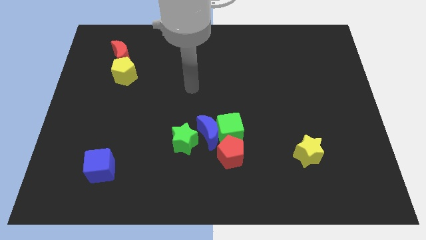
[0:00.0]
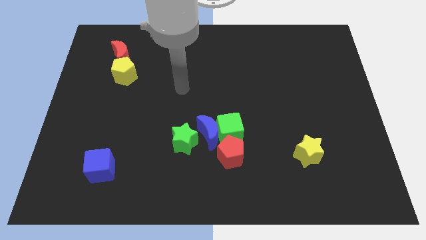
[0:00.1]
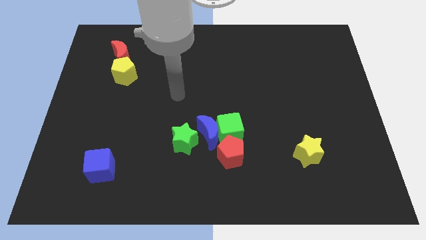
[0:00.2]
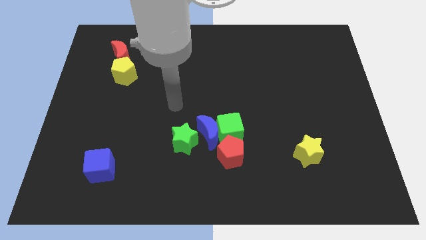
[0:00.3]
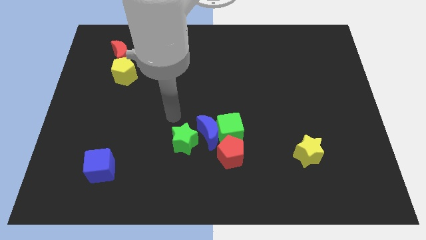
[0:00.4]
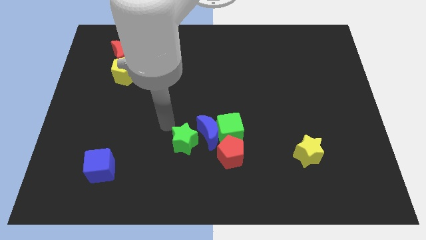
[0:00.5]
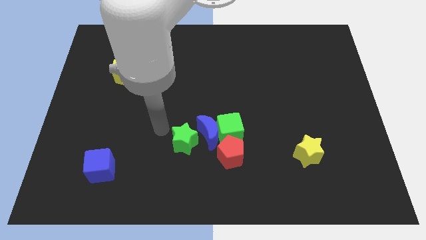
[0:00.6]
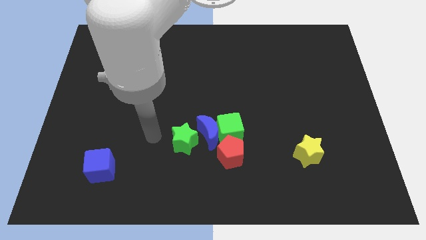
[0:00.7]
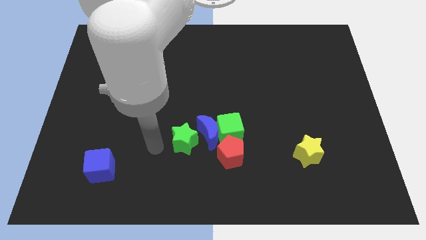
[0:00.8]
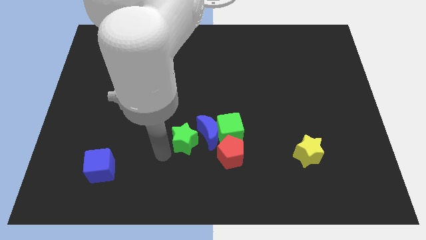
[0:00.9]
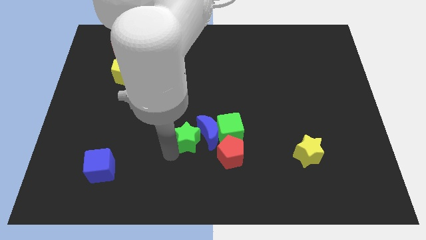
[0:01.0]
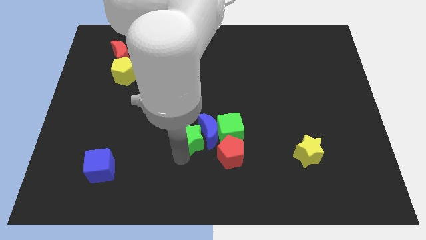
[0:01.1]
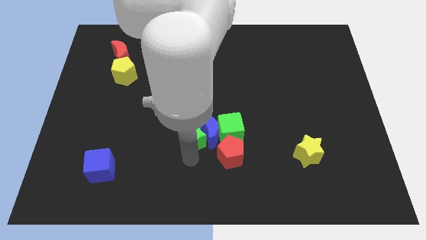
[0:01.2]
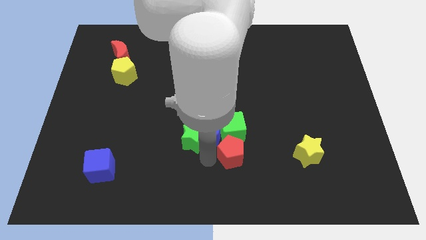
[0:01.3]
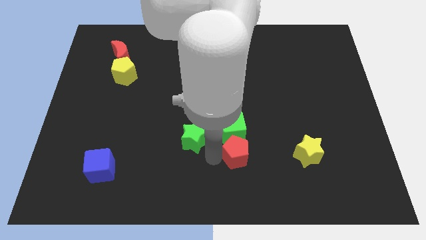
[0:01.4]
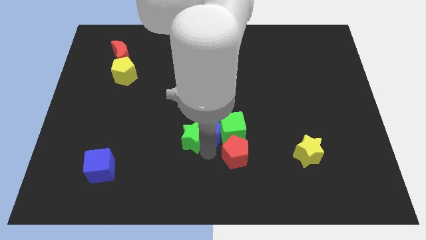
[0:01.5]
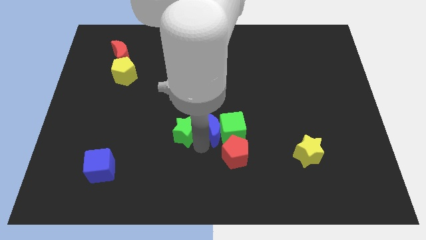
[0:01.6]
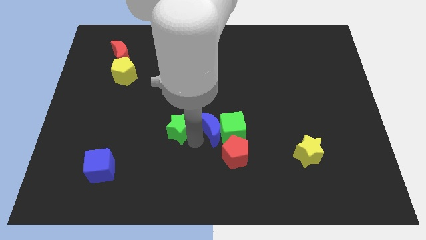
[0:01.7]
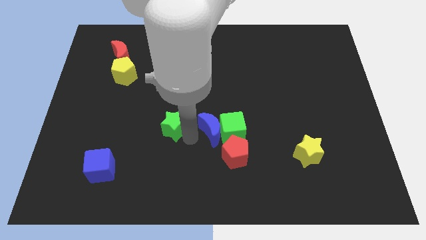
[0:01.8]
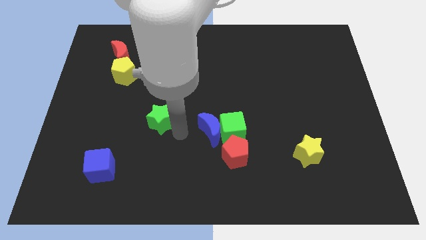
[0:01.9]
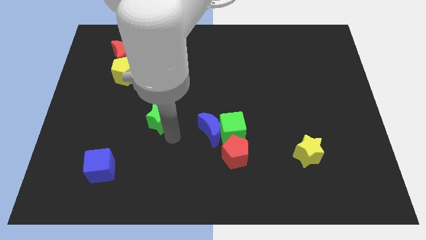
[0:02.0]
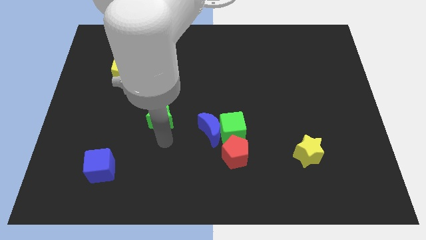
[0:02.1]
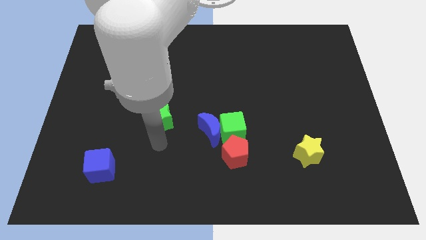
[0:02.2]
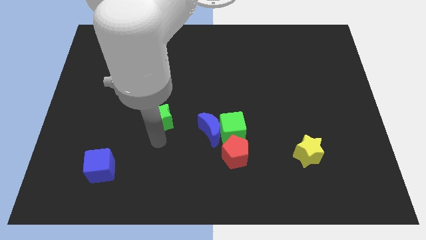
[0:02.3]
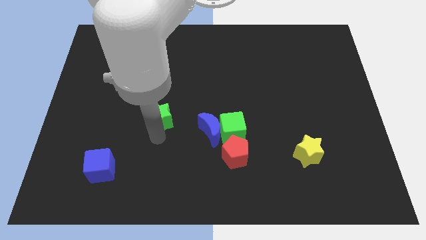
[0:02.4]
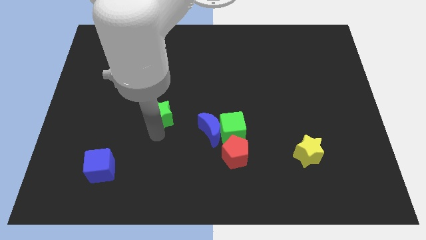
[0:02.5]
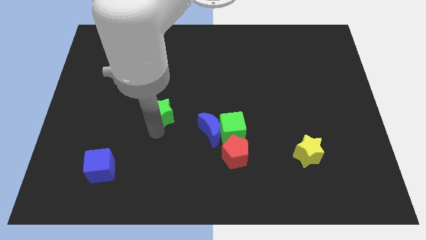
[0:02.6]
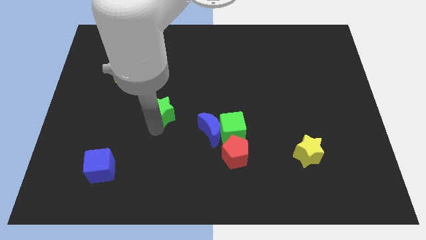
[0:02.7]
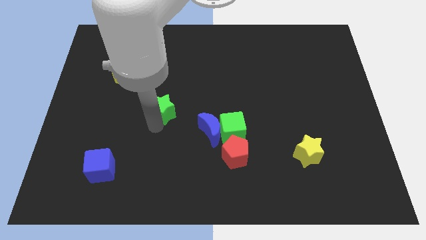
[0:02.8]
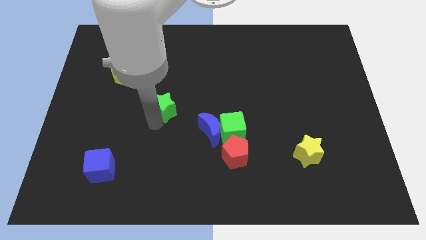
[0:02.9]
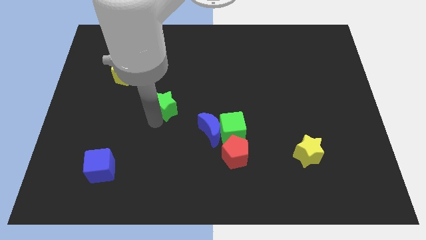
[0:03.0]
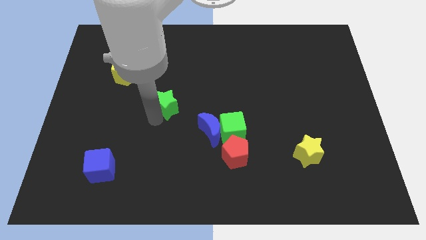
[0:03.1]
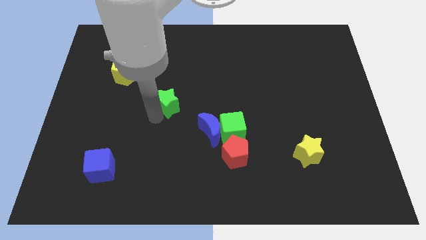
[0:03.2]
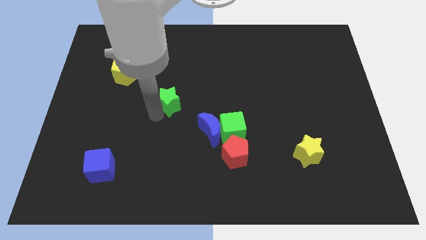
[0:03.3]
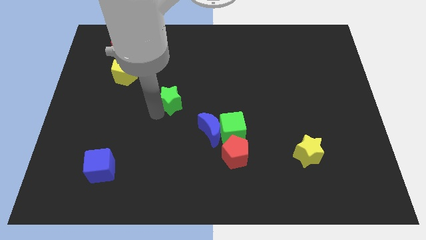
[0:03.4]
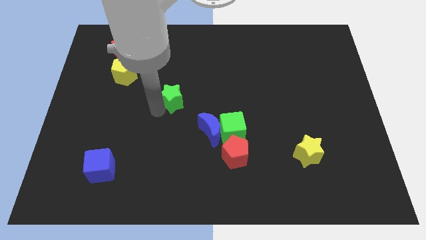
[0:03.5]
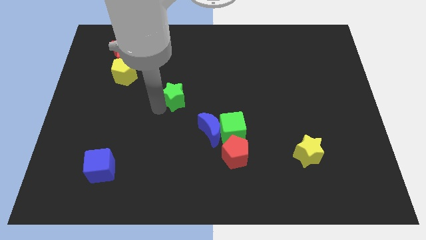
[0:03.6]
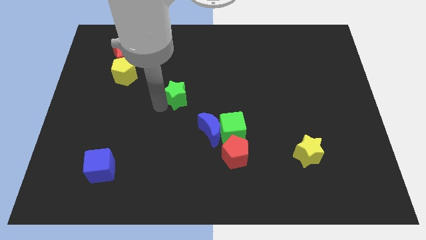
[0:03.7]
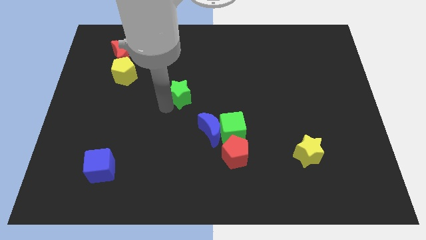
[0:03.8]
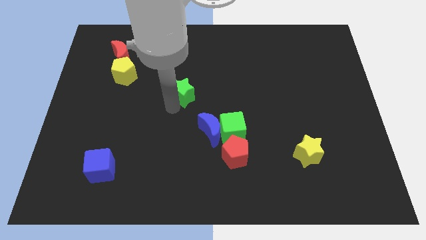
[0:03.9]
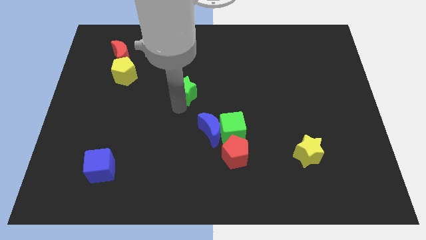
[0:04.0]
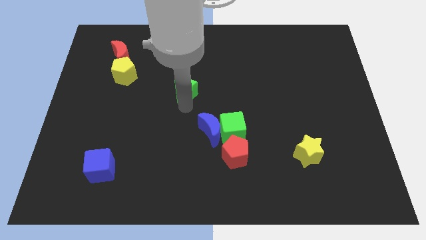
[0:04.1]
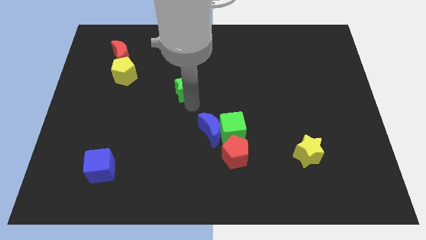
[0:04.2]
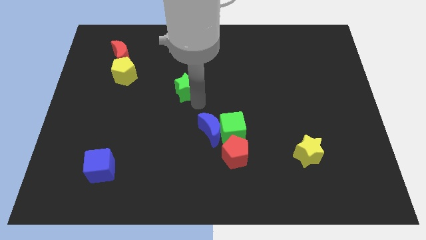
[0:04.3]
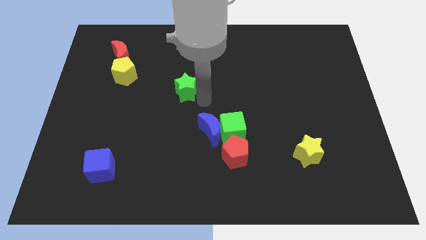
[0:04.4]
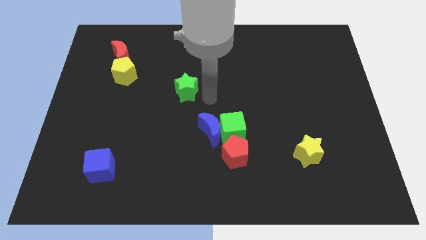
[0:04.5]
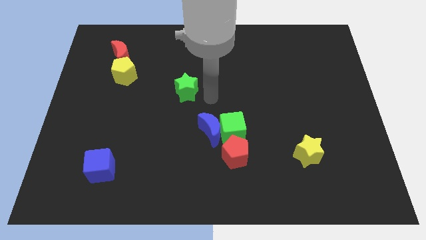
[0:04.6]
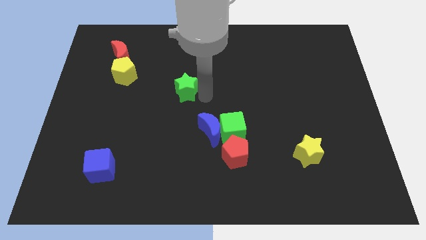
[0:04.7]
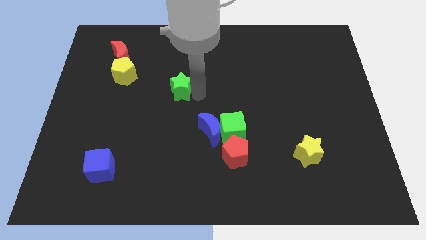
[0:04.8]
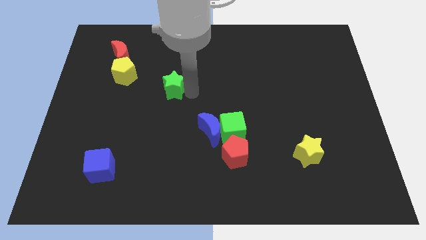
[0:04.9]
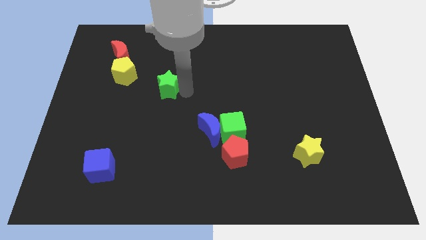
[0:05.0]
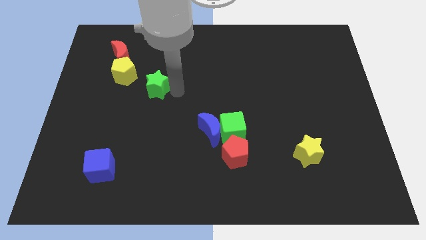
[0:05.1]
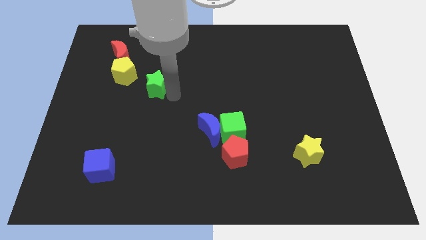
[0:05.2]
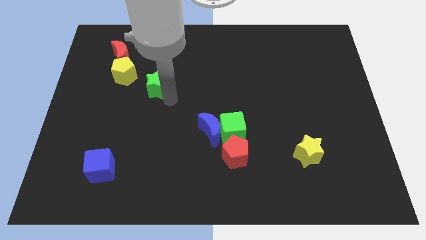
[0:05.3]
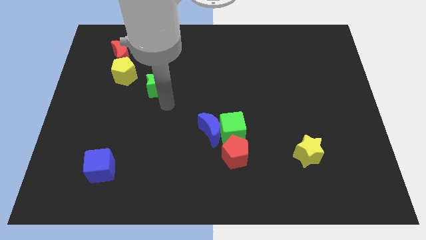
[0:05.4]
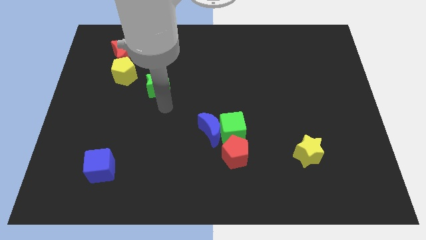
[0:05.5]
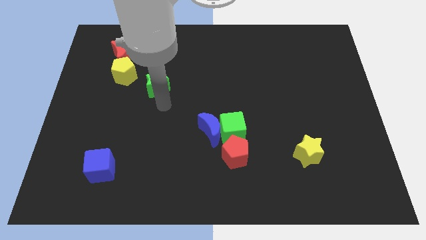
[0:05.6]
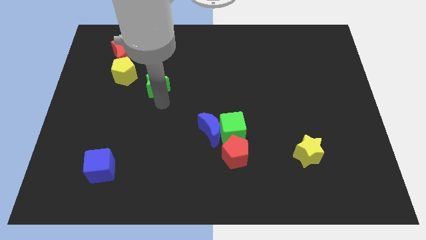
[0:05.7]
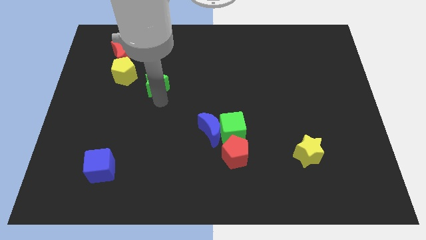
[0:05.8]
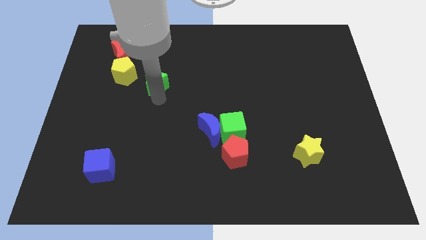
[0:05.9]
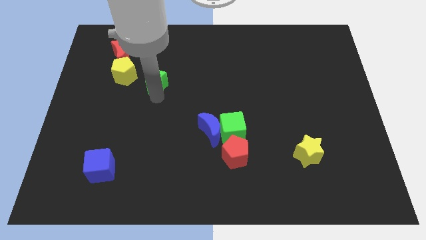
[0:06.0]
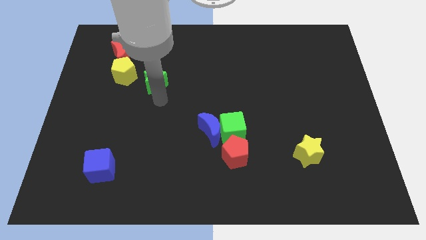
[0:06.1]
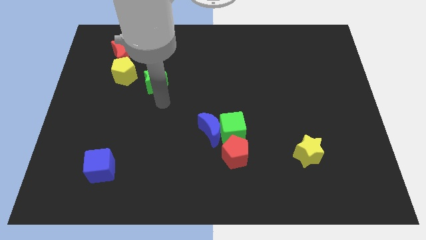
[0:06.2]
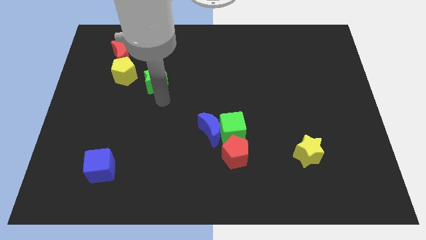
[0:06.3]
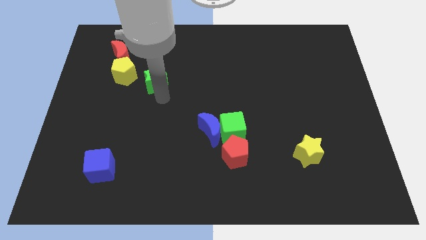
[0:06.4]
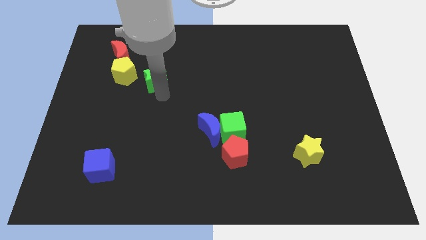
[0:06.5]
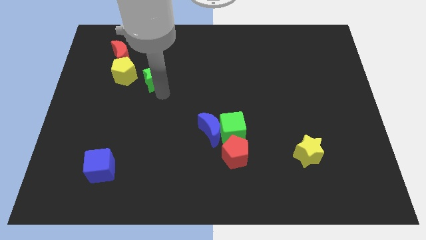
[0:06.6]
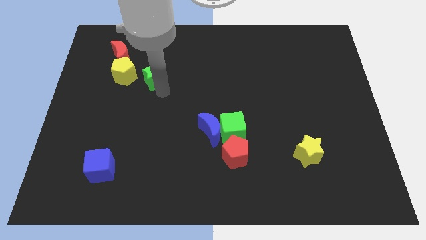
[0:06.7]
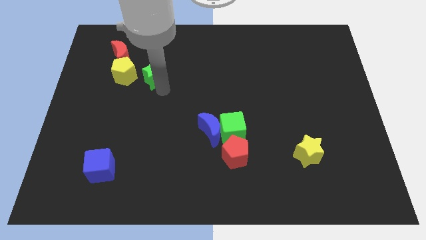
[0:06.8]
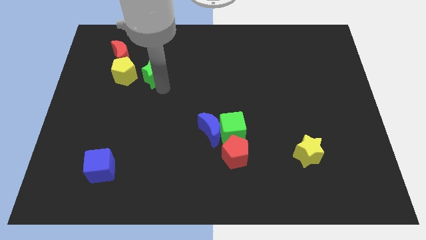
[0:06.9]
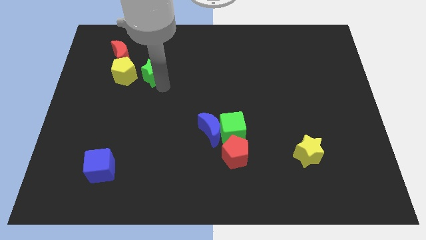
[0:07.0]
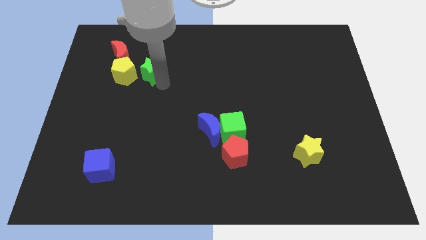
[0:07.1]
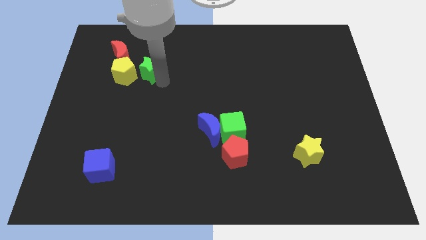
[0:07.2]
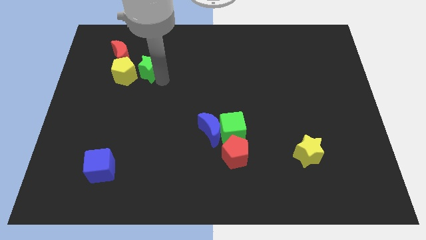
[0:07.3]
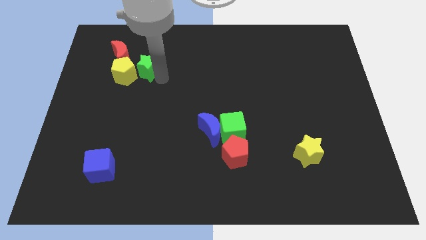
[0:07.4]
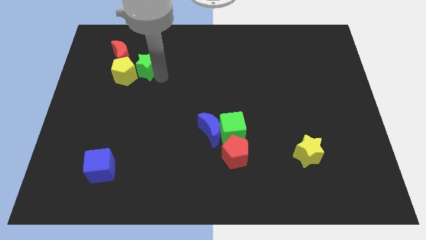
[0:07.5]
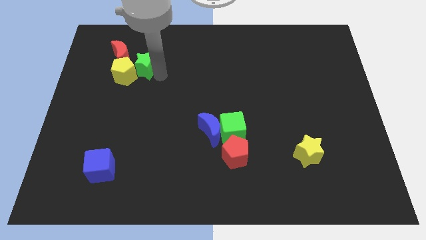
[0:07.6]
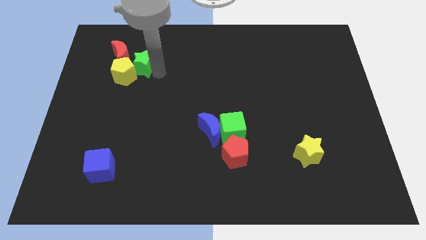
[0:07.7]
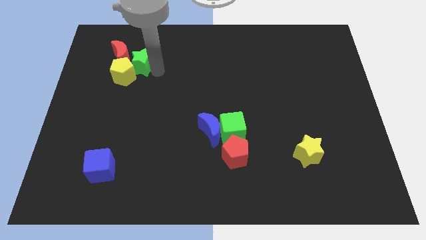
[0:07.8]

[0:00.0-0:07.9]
move the green star to the red moon

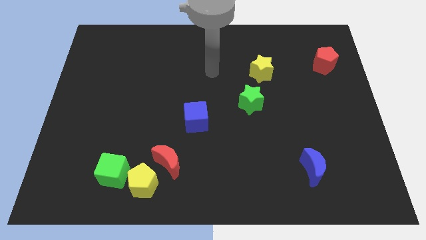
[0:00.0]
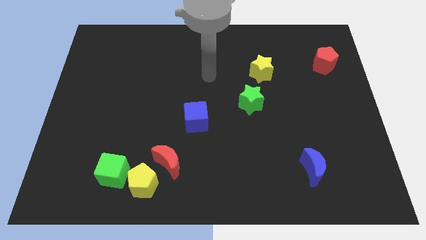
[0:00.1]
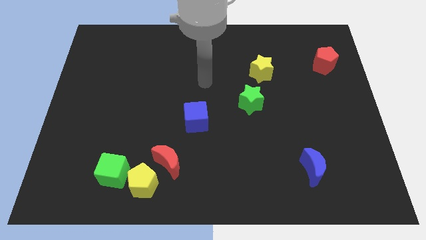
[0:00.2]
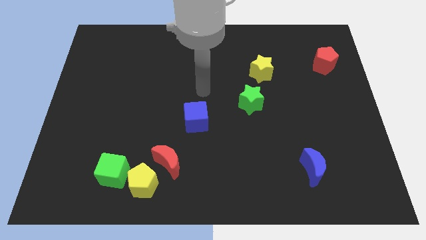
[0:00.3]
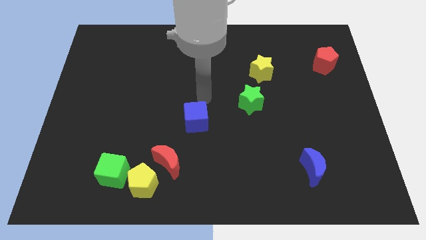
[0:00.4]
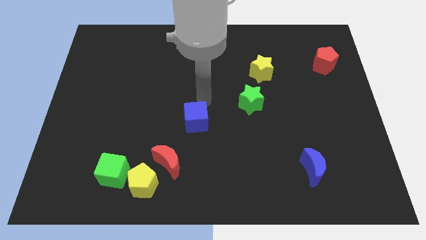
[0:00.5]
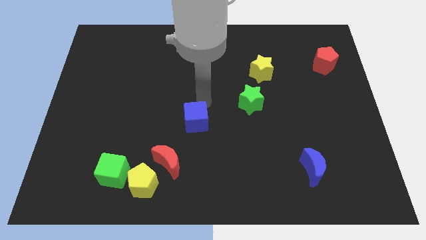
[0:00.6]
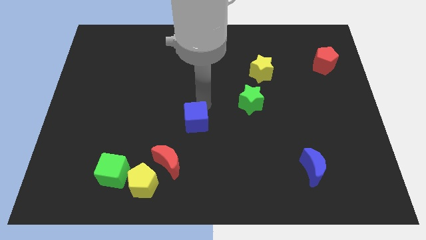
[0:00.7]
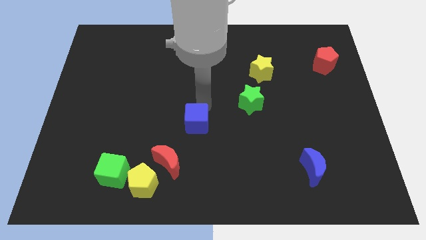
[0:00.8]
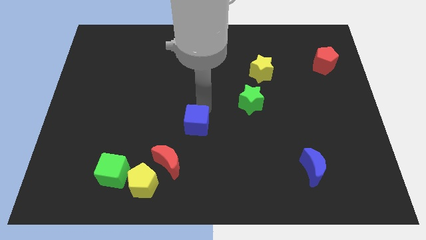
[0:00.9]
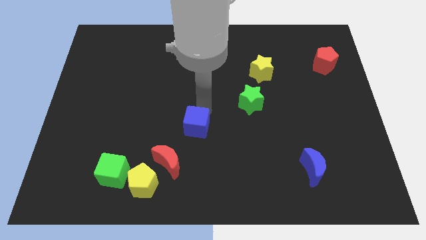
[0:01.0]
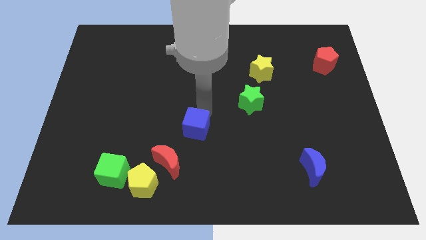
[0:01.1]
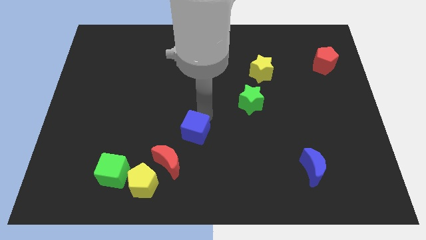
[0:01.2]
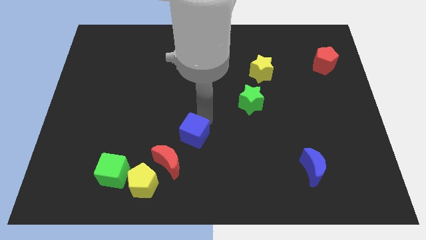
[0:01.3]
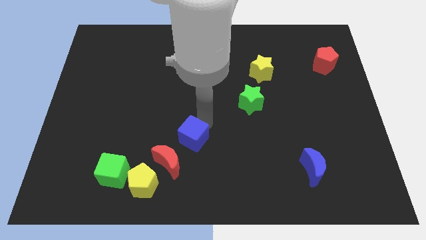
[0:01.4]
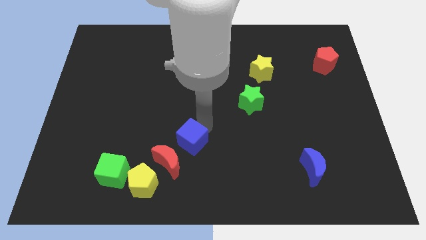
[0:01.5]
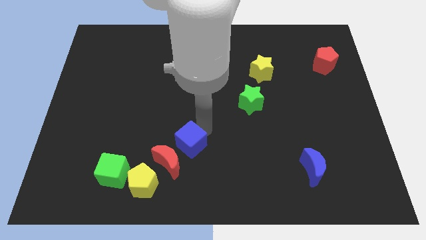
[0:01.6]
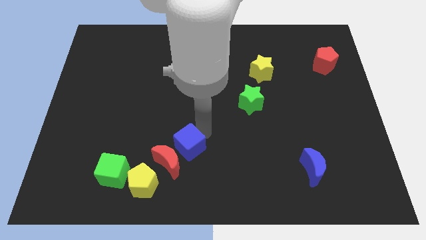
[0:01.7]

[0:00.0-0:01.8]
put the blue cube to the red moon
